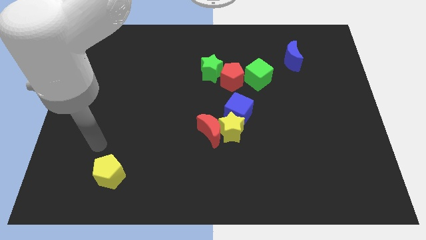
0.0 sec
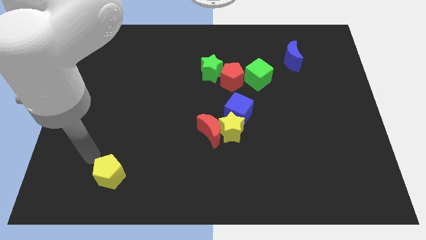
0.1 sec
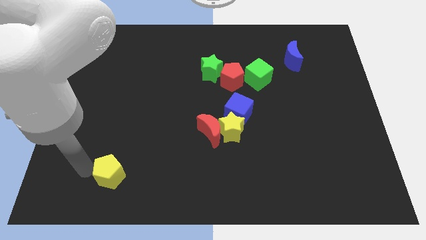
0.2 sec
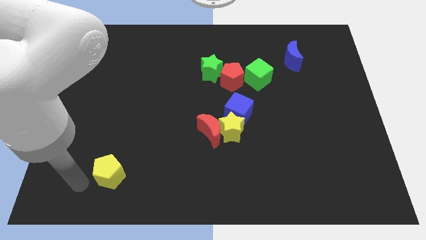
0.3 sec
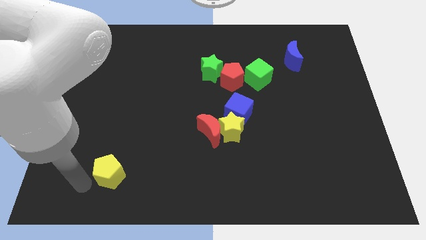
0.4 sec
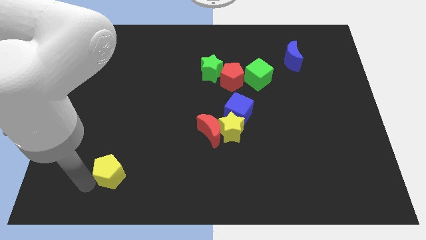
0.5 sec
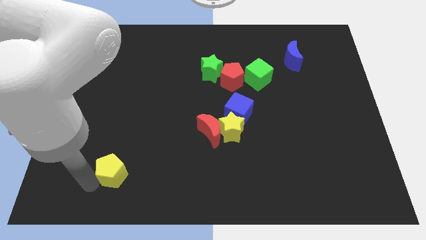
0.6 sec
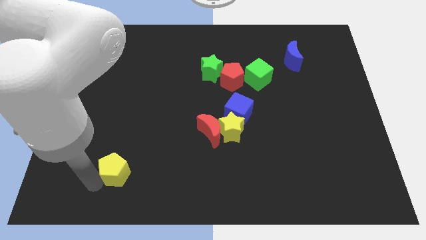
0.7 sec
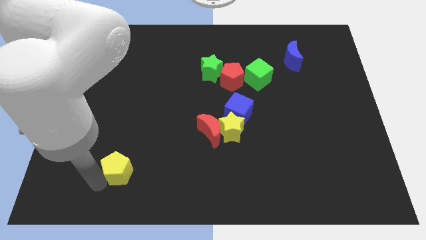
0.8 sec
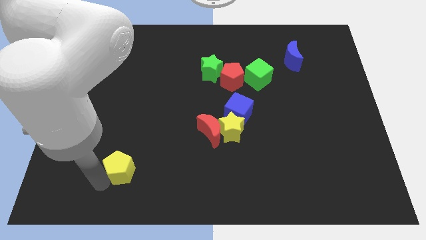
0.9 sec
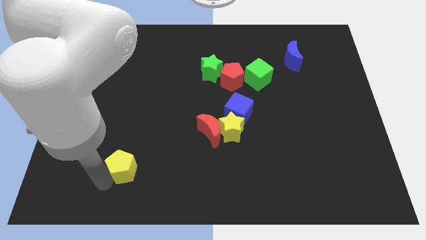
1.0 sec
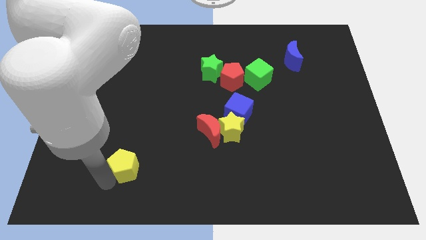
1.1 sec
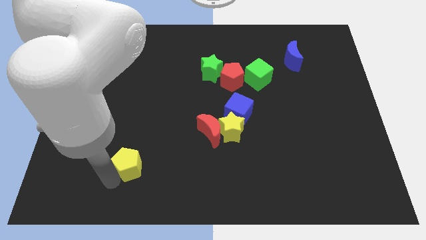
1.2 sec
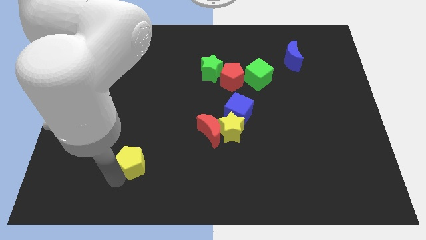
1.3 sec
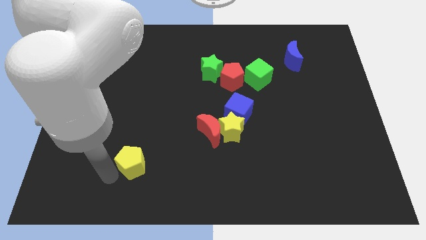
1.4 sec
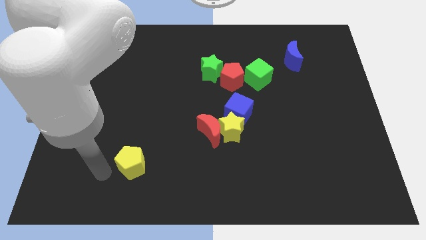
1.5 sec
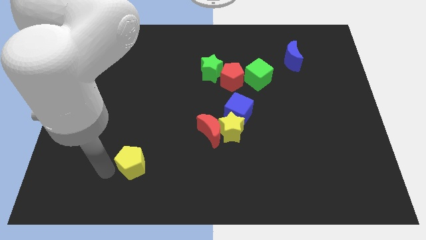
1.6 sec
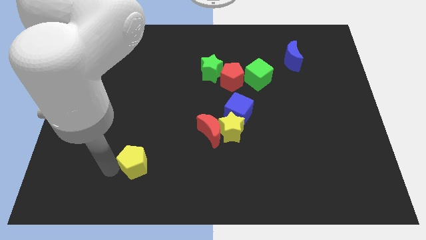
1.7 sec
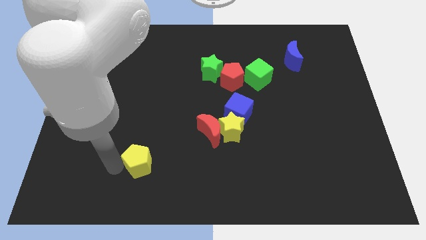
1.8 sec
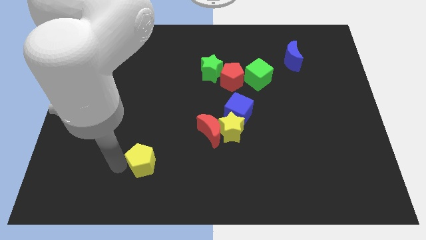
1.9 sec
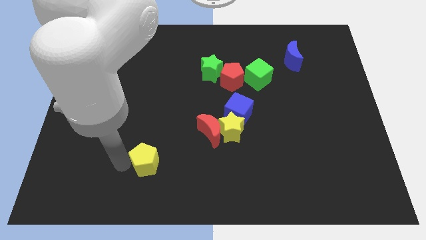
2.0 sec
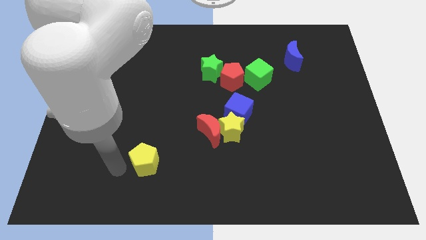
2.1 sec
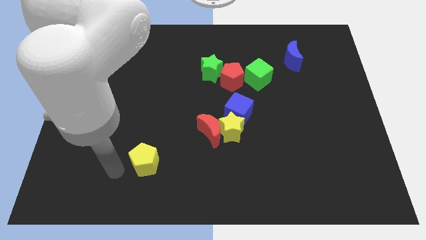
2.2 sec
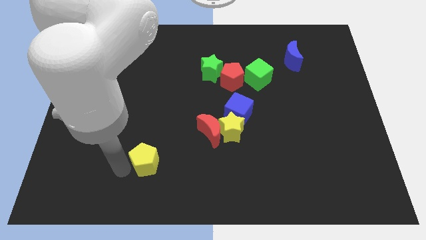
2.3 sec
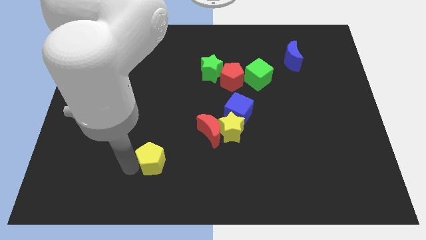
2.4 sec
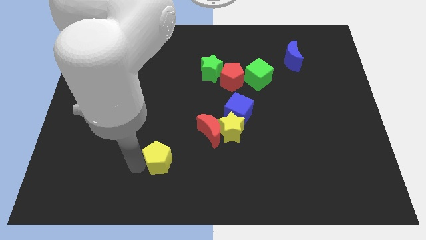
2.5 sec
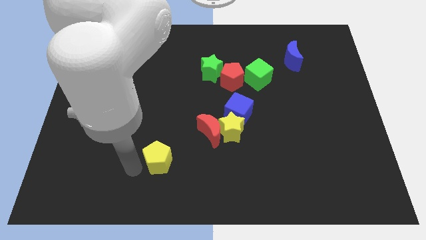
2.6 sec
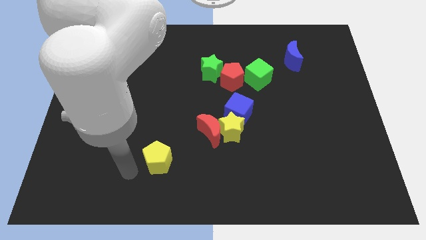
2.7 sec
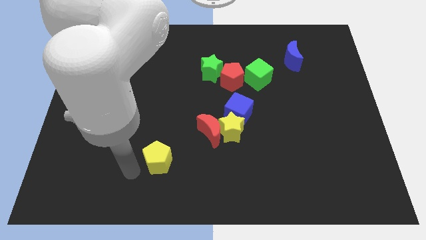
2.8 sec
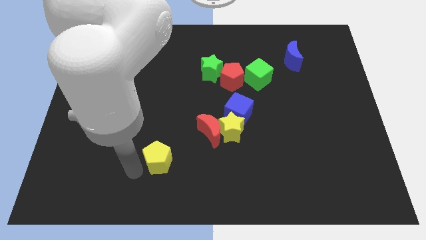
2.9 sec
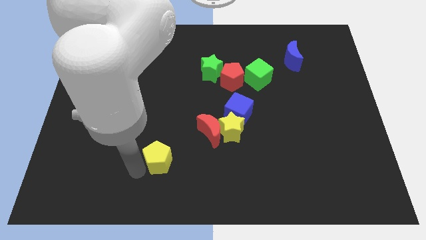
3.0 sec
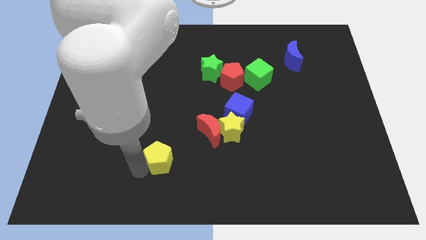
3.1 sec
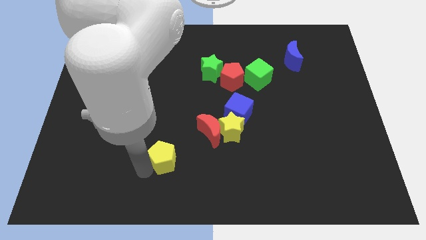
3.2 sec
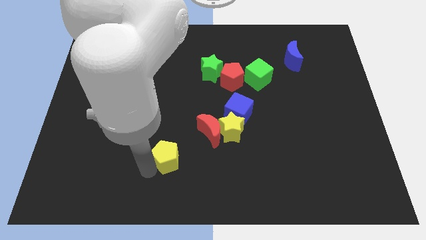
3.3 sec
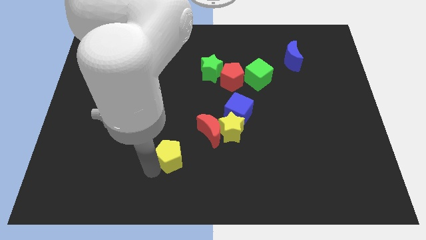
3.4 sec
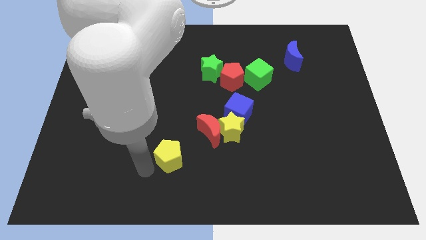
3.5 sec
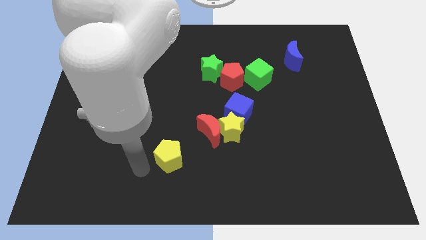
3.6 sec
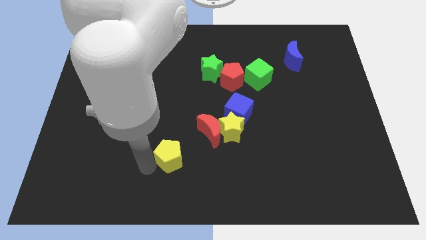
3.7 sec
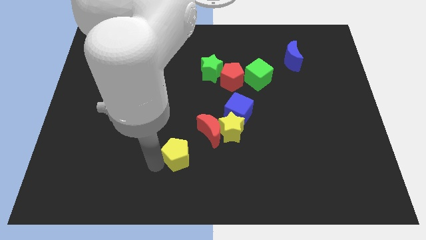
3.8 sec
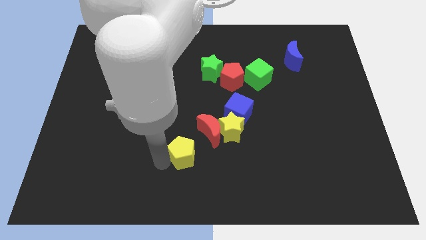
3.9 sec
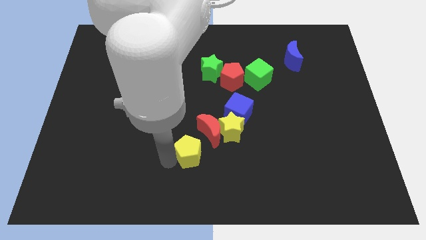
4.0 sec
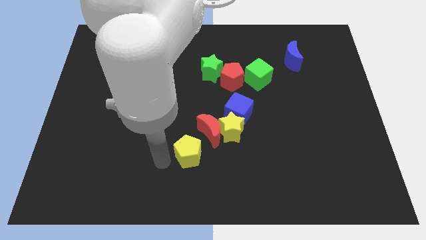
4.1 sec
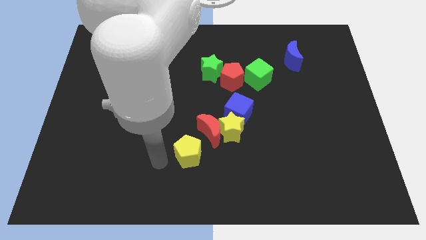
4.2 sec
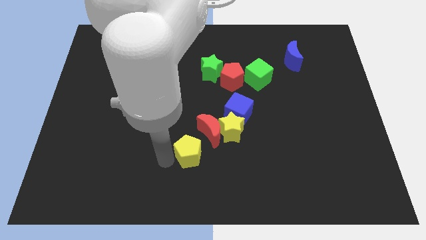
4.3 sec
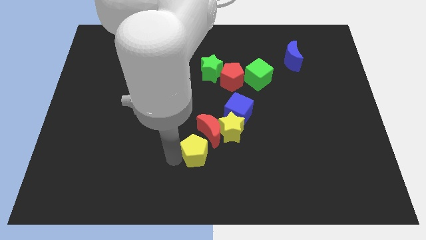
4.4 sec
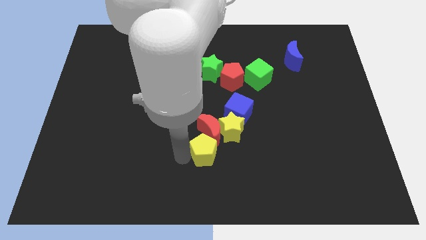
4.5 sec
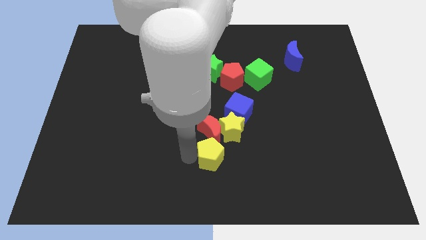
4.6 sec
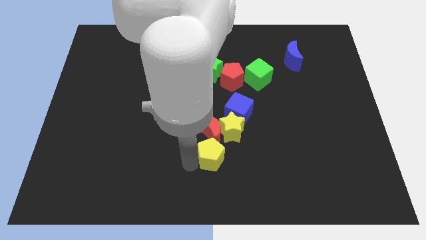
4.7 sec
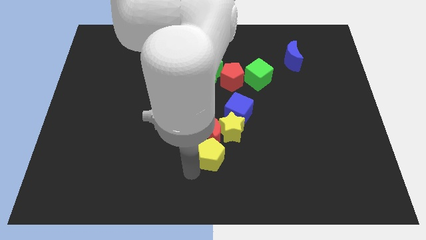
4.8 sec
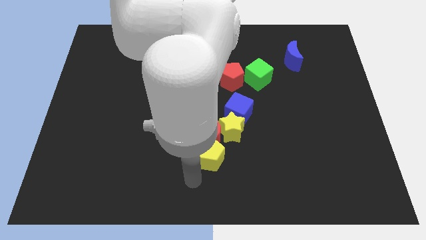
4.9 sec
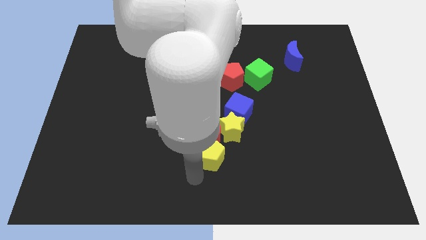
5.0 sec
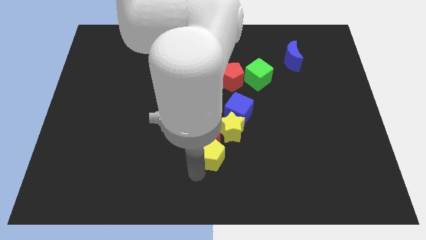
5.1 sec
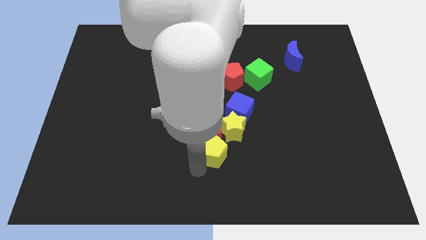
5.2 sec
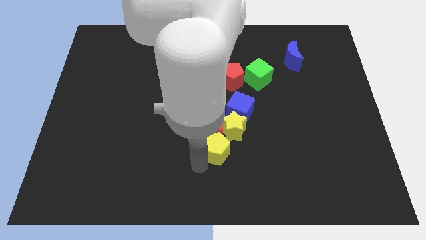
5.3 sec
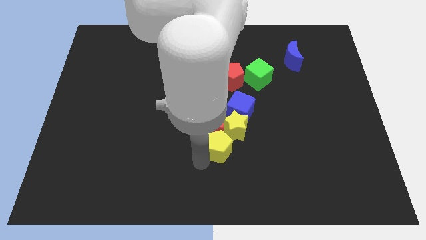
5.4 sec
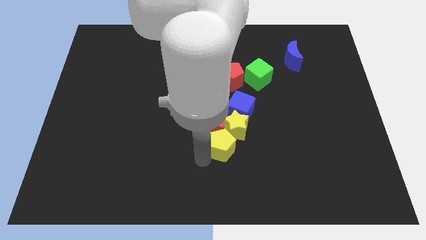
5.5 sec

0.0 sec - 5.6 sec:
put the yellow pentagon close to the yellow star

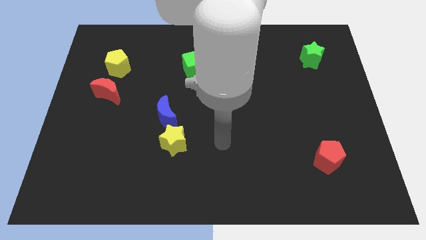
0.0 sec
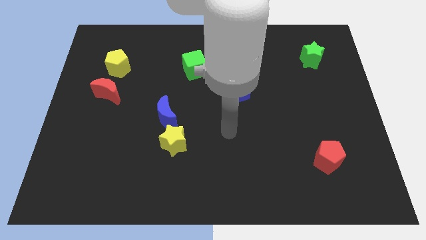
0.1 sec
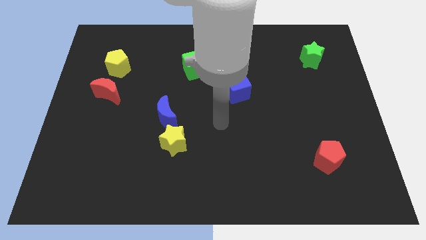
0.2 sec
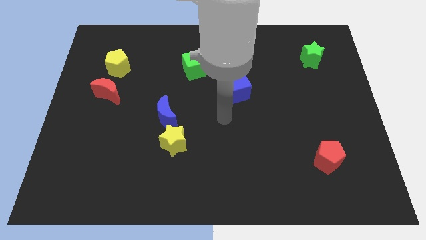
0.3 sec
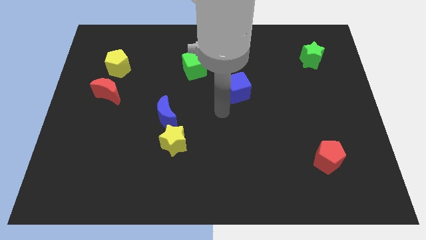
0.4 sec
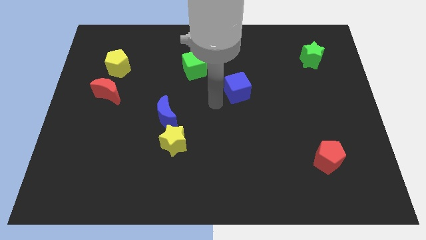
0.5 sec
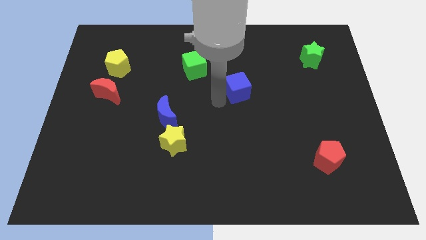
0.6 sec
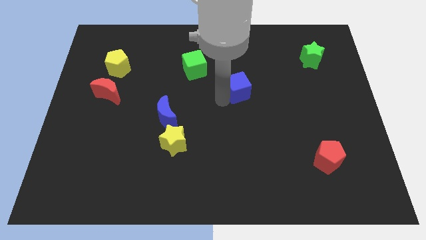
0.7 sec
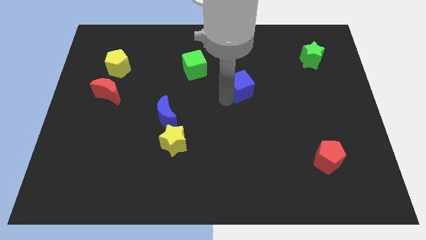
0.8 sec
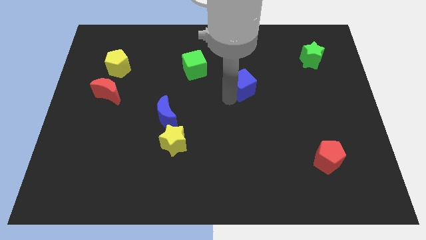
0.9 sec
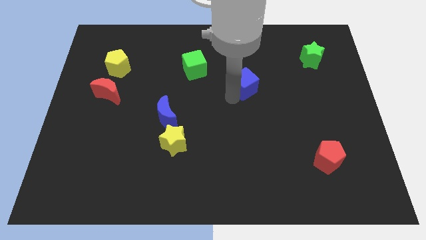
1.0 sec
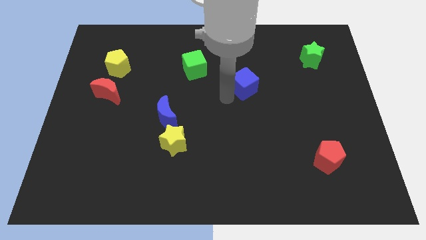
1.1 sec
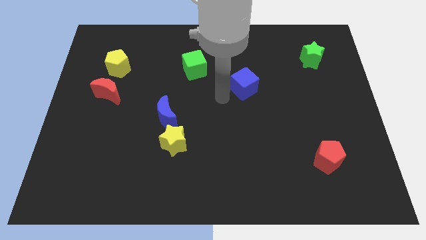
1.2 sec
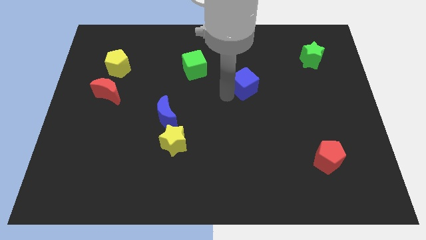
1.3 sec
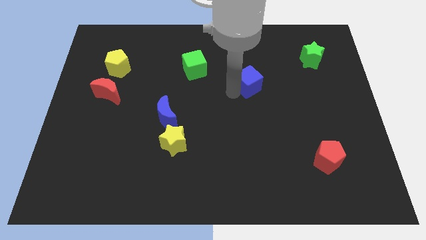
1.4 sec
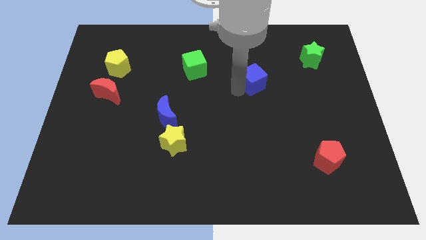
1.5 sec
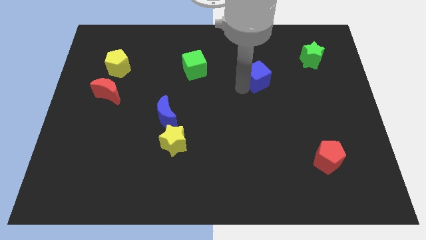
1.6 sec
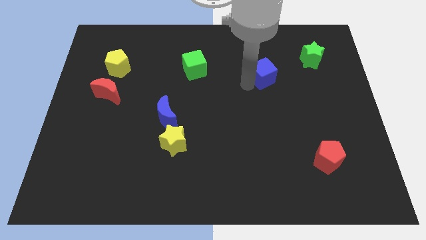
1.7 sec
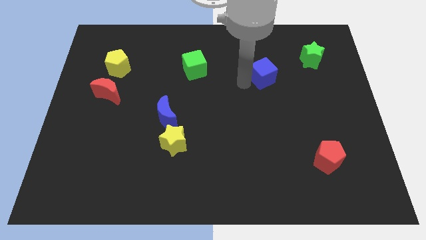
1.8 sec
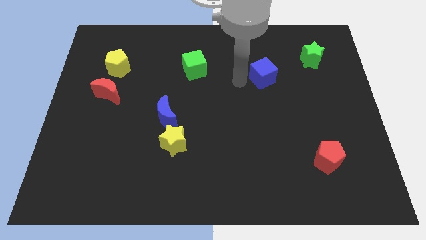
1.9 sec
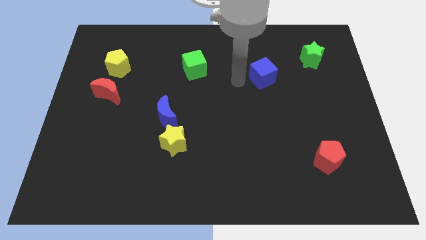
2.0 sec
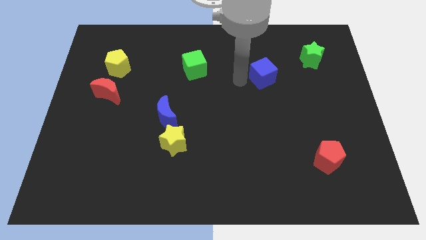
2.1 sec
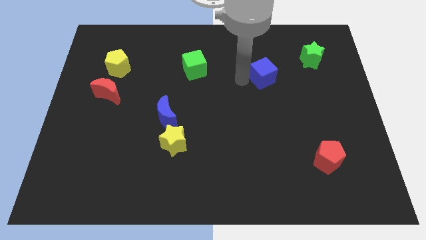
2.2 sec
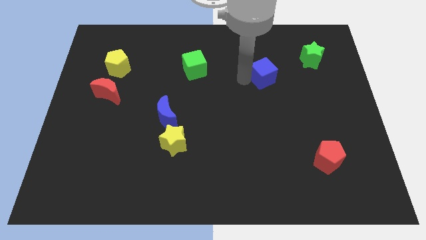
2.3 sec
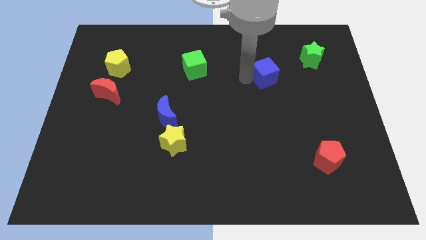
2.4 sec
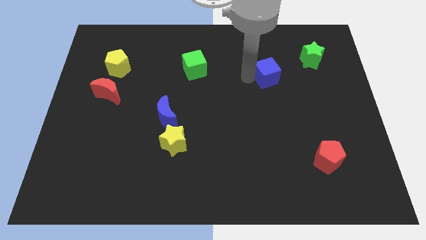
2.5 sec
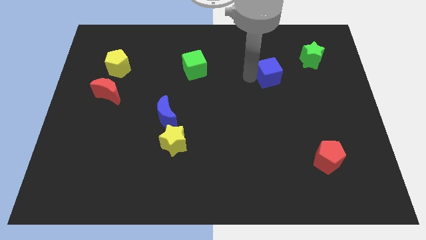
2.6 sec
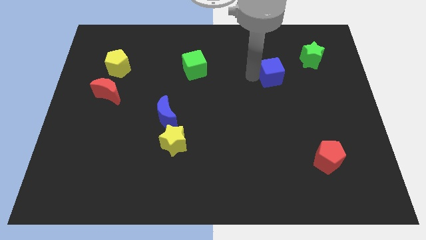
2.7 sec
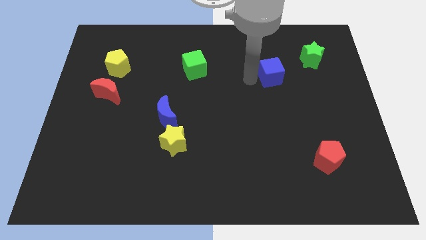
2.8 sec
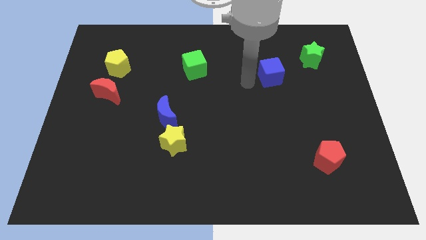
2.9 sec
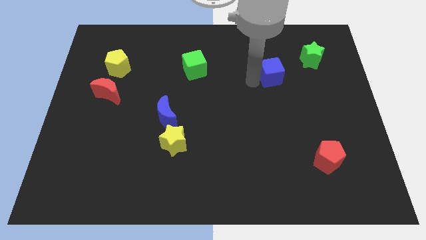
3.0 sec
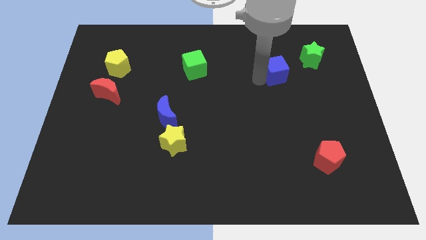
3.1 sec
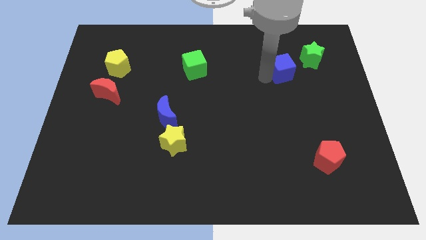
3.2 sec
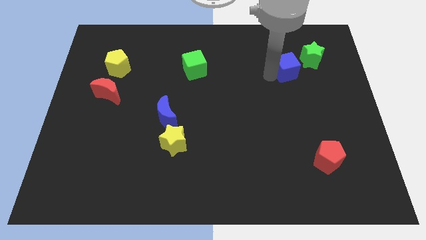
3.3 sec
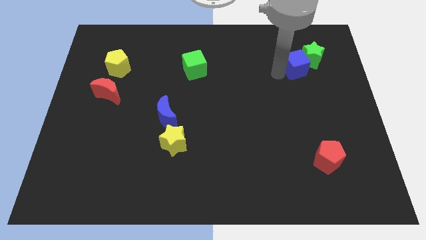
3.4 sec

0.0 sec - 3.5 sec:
push the blue cube towards the green star
